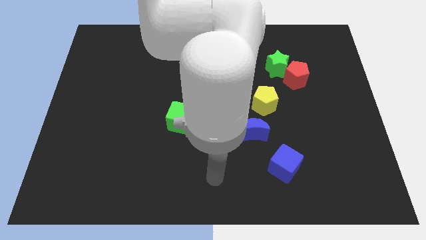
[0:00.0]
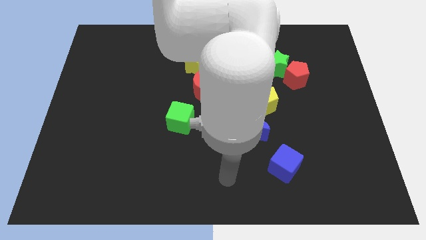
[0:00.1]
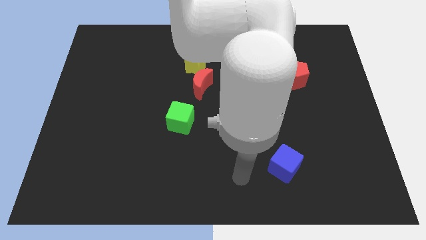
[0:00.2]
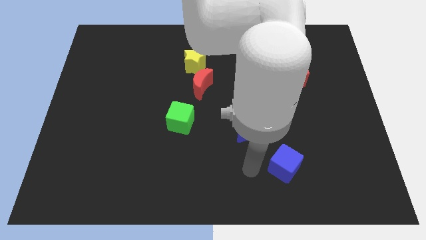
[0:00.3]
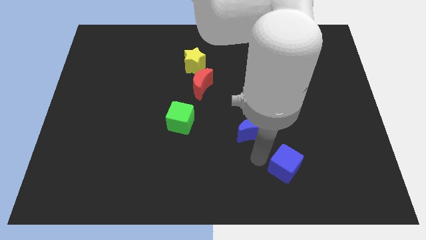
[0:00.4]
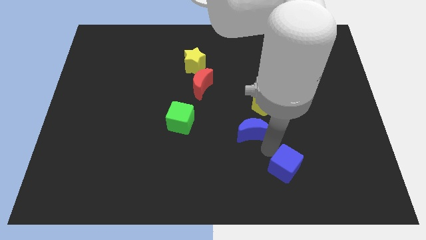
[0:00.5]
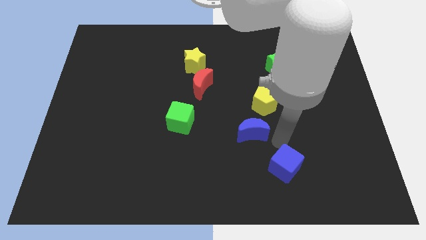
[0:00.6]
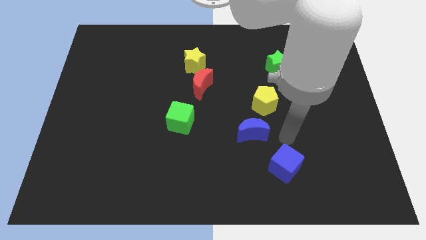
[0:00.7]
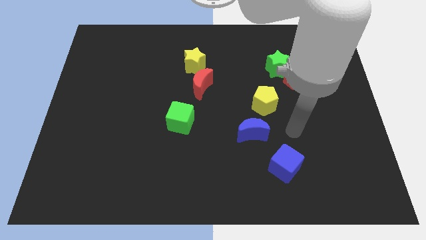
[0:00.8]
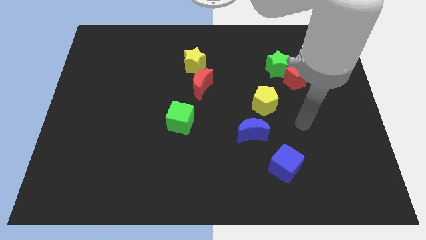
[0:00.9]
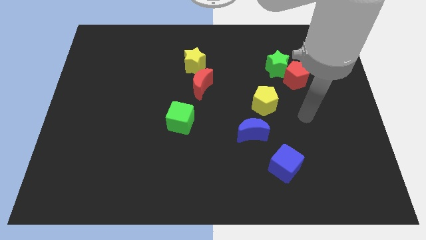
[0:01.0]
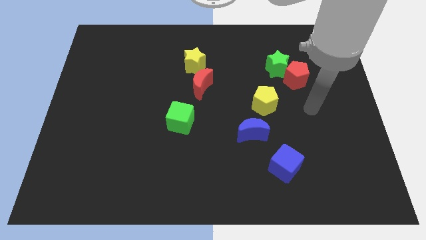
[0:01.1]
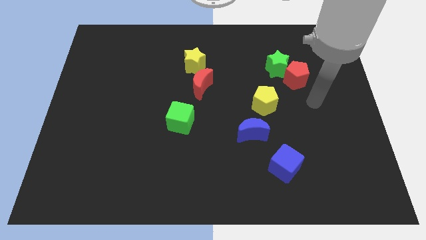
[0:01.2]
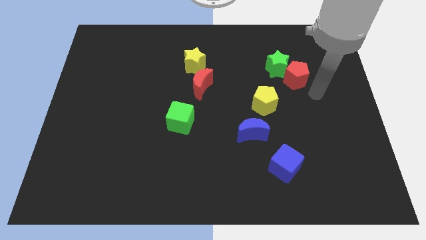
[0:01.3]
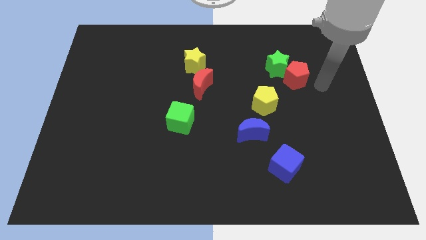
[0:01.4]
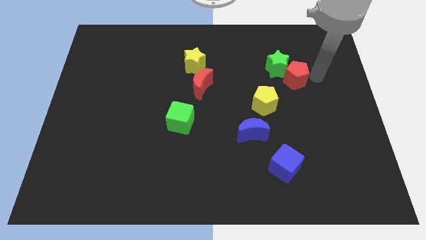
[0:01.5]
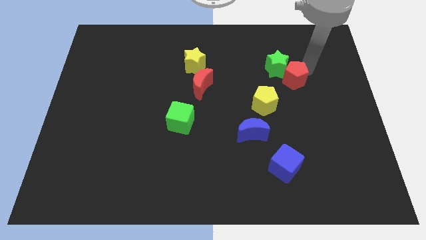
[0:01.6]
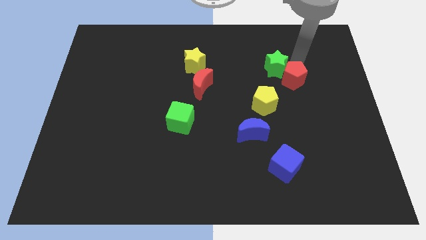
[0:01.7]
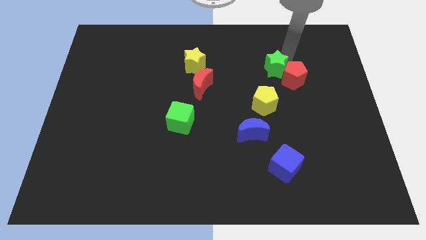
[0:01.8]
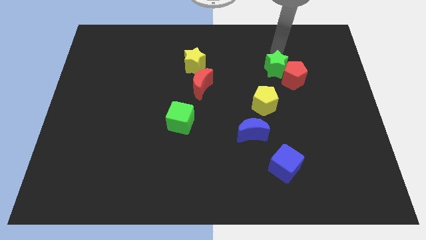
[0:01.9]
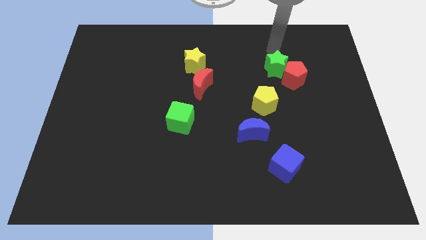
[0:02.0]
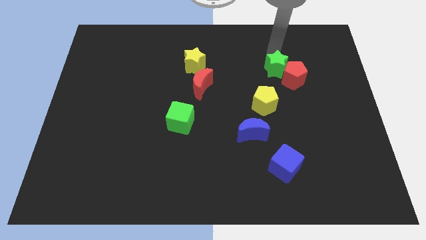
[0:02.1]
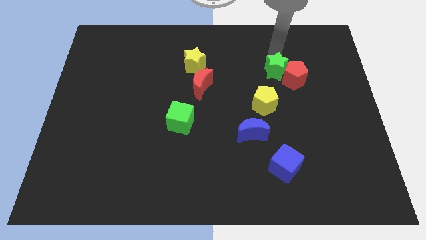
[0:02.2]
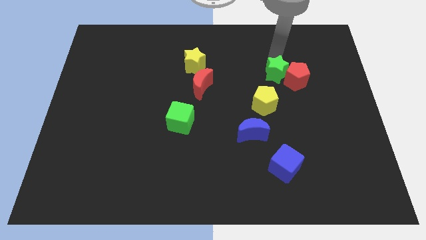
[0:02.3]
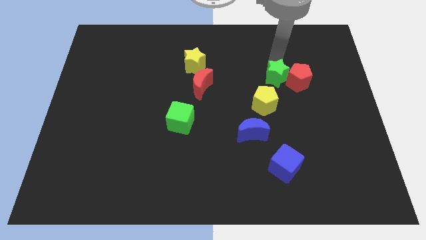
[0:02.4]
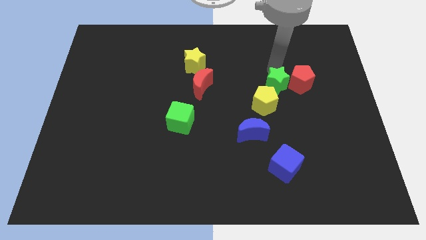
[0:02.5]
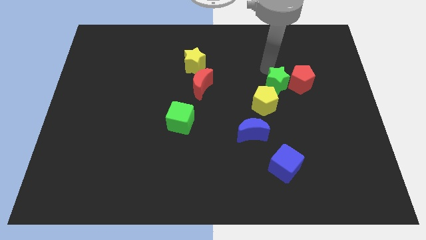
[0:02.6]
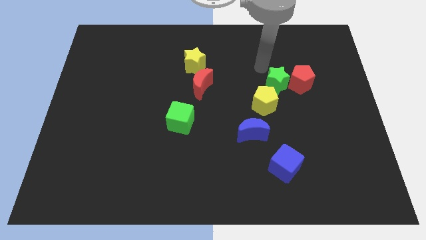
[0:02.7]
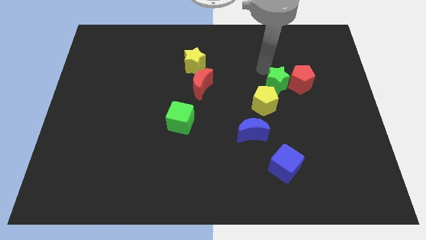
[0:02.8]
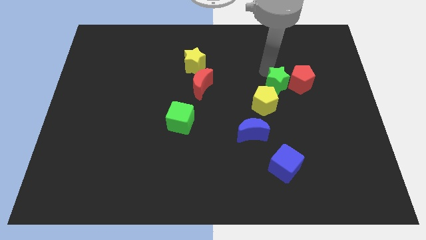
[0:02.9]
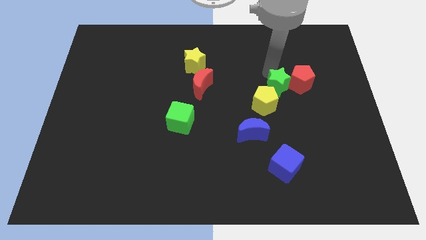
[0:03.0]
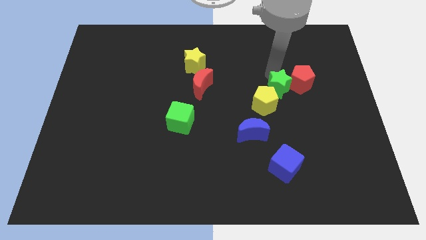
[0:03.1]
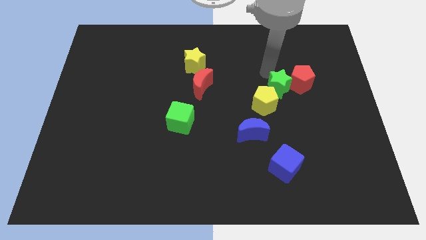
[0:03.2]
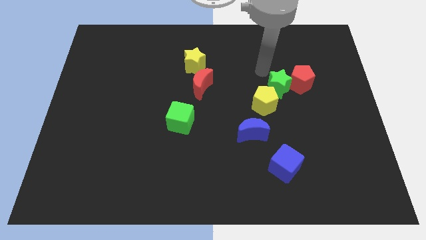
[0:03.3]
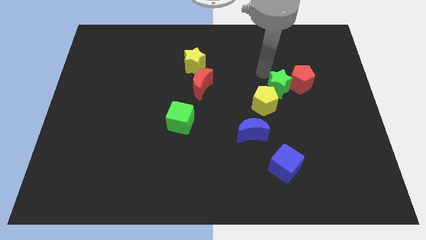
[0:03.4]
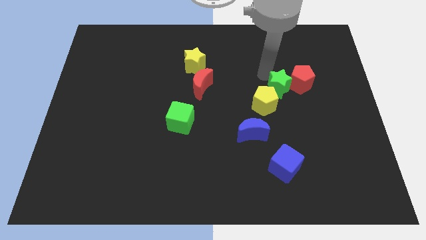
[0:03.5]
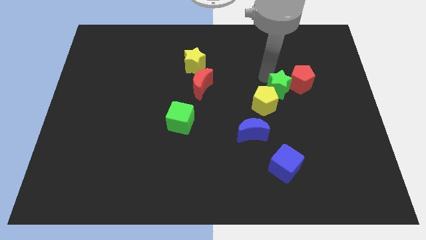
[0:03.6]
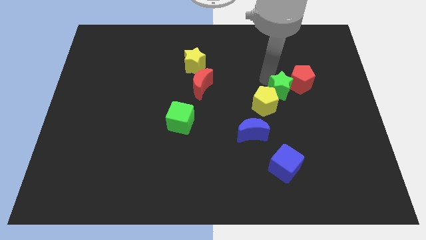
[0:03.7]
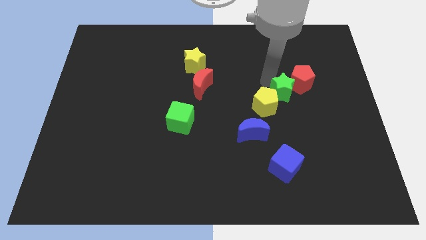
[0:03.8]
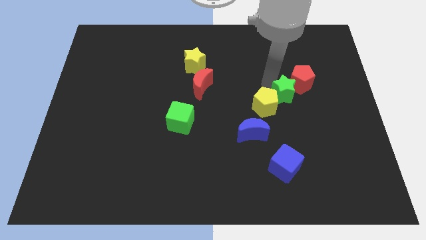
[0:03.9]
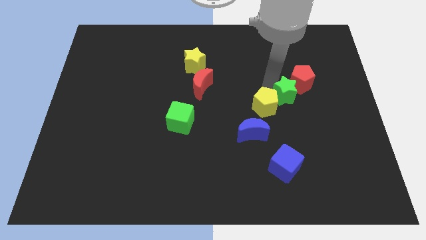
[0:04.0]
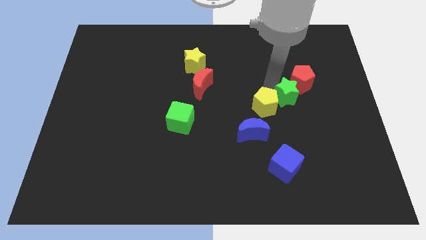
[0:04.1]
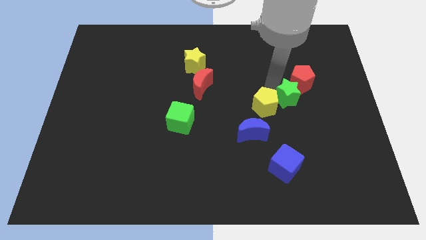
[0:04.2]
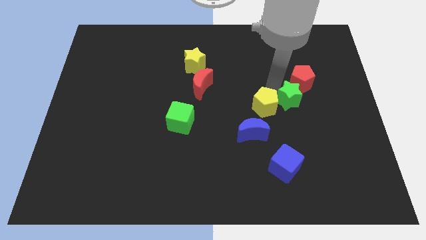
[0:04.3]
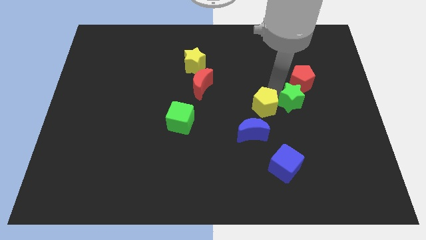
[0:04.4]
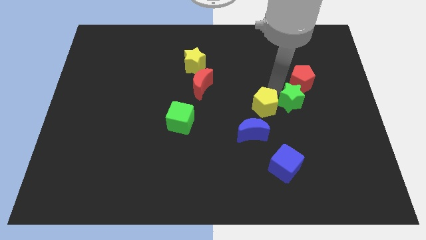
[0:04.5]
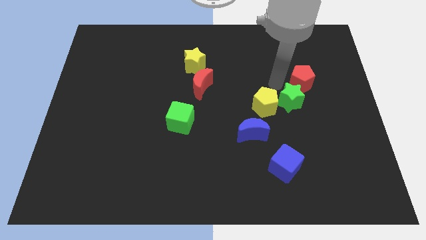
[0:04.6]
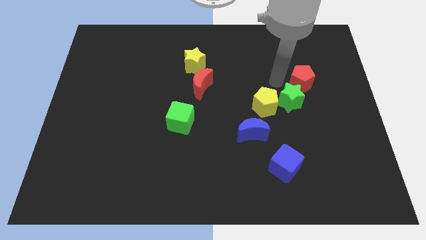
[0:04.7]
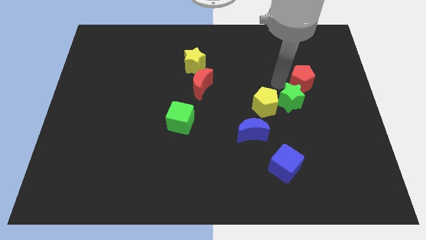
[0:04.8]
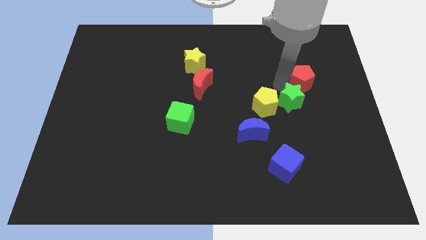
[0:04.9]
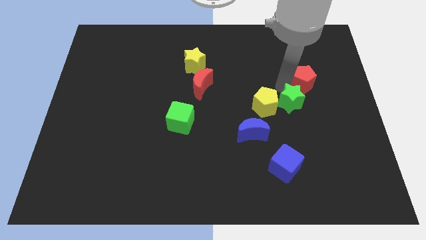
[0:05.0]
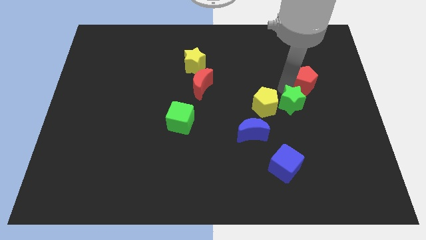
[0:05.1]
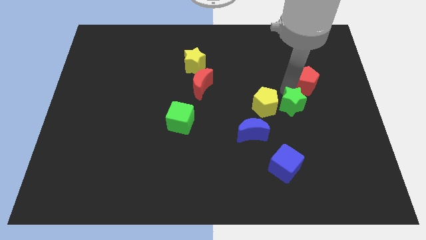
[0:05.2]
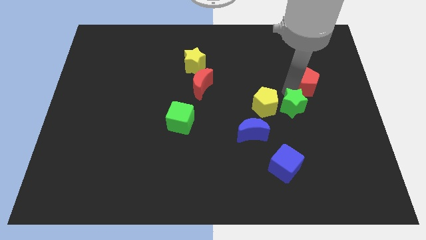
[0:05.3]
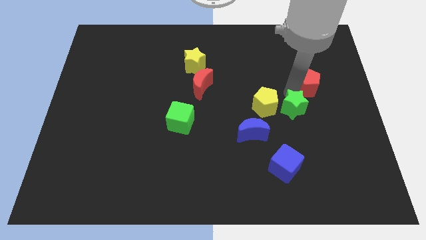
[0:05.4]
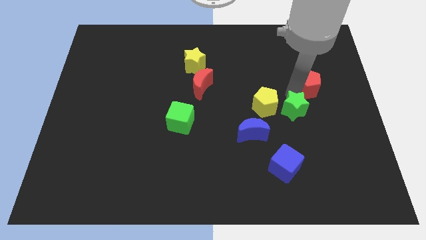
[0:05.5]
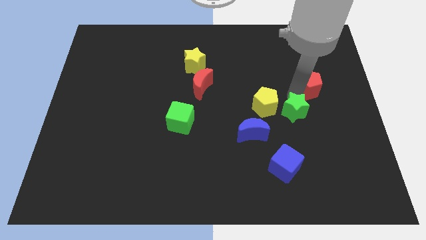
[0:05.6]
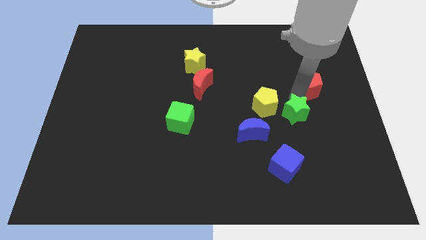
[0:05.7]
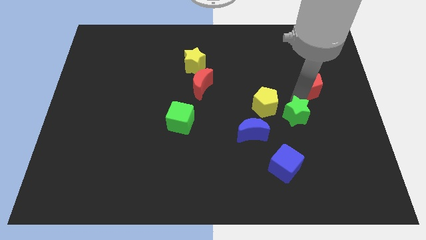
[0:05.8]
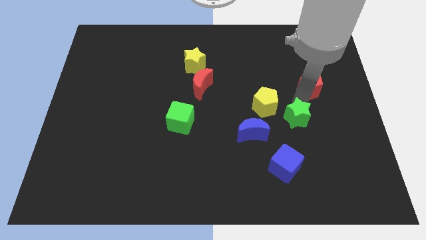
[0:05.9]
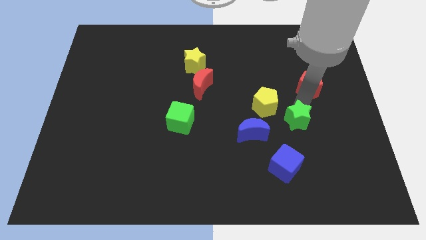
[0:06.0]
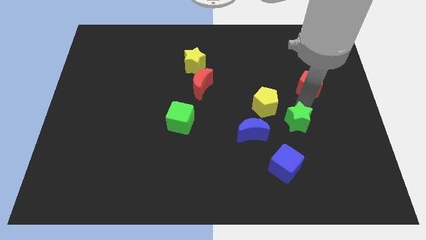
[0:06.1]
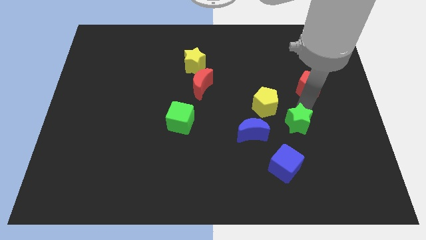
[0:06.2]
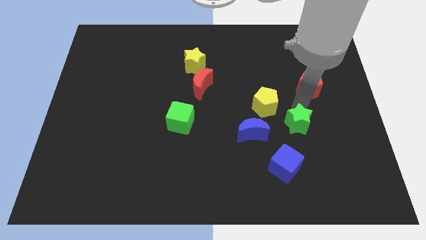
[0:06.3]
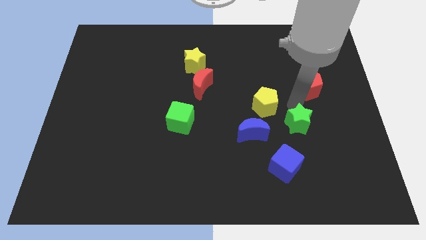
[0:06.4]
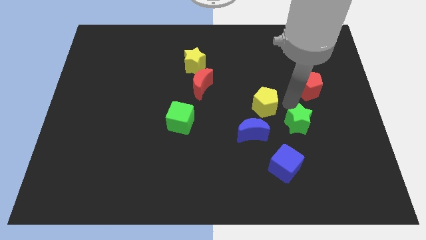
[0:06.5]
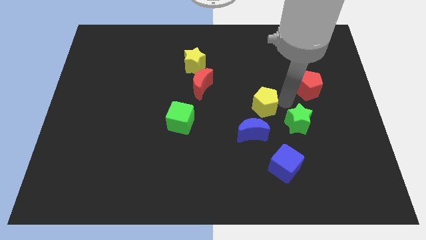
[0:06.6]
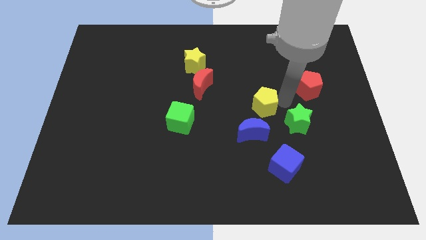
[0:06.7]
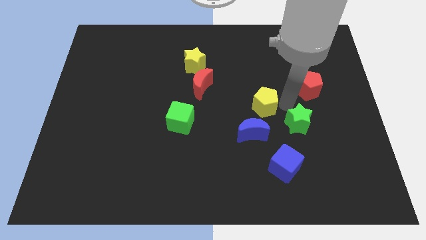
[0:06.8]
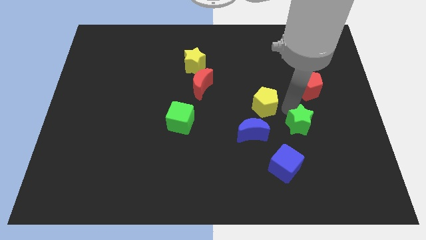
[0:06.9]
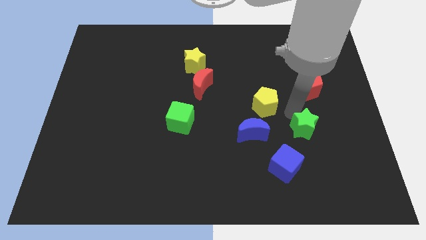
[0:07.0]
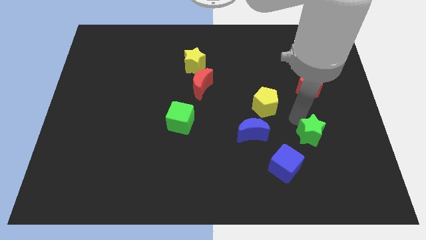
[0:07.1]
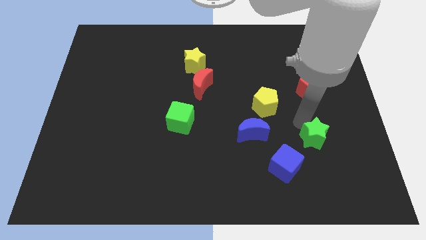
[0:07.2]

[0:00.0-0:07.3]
move the green star down

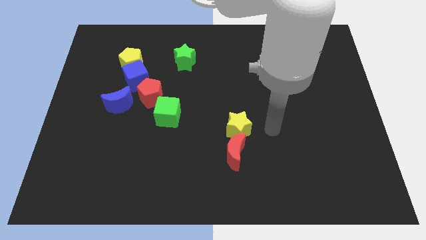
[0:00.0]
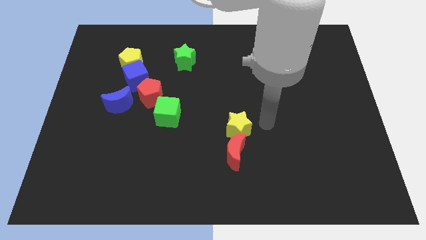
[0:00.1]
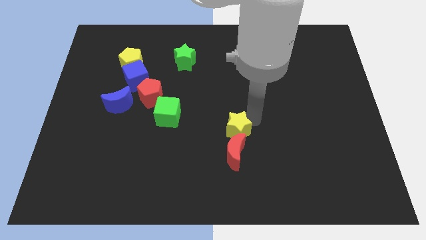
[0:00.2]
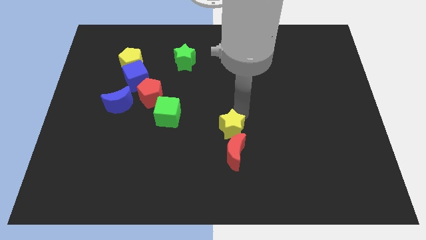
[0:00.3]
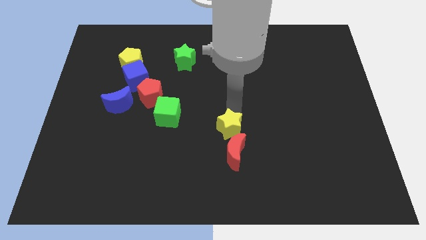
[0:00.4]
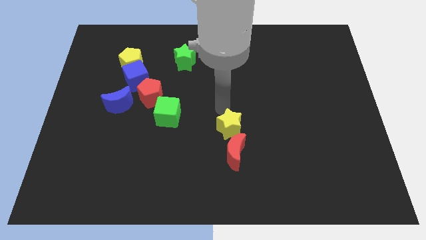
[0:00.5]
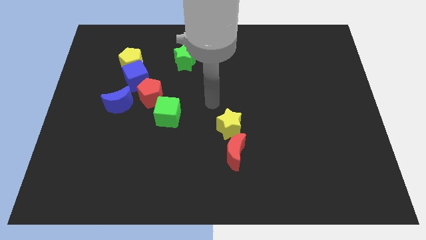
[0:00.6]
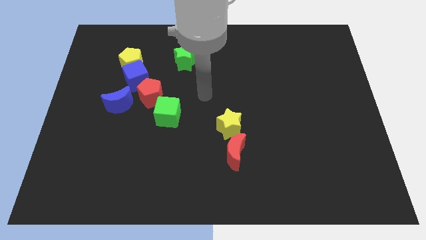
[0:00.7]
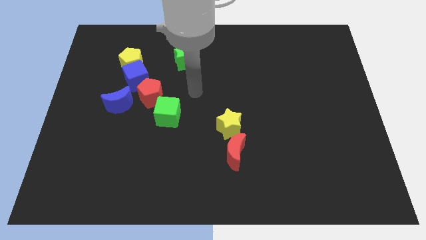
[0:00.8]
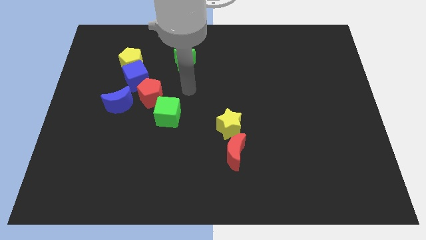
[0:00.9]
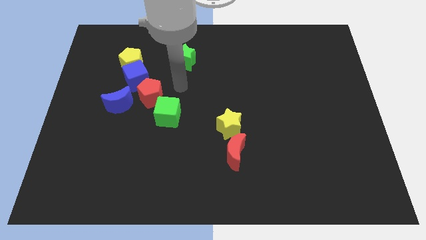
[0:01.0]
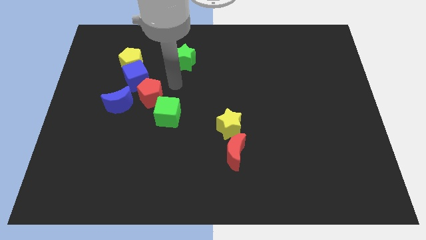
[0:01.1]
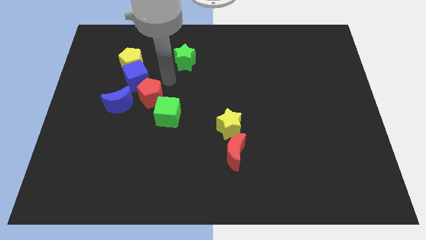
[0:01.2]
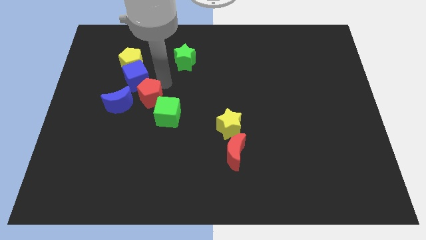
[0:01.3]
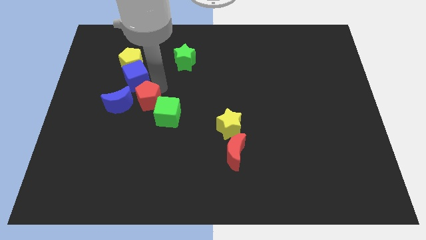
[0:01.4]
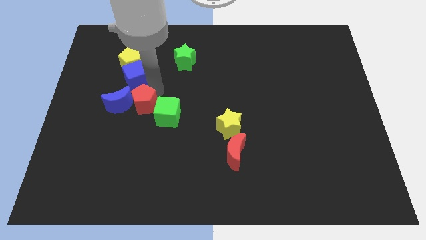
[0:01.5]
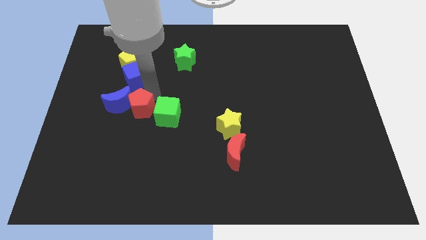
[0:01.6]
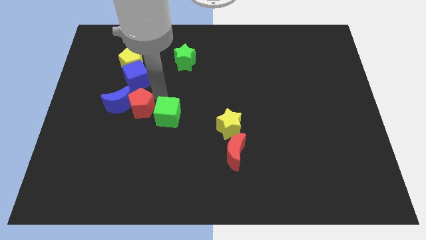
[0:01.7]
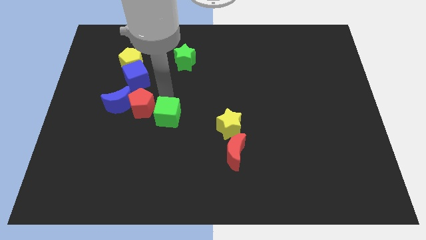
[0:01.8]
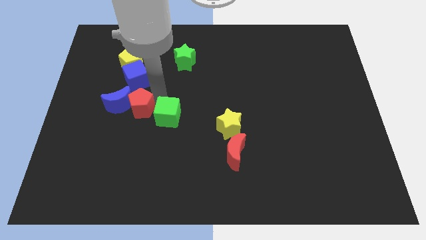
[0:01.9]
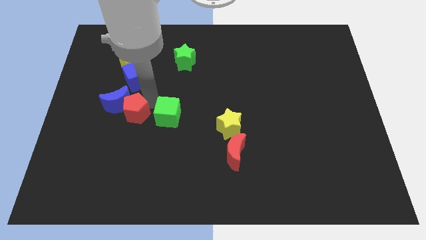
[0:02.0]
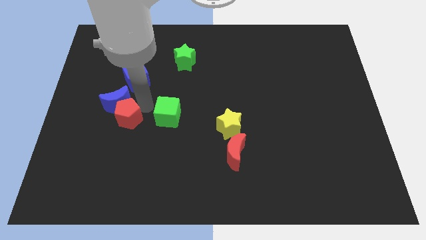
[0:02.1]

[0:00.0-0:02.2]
slightly move the red pentagon downwards and to the left diagonally
